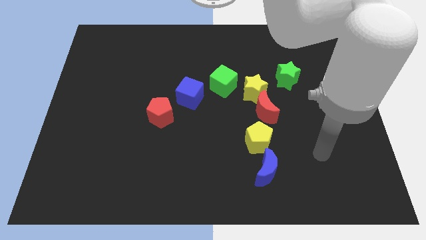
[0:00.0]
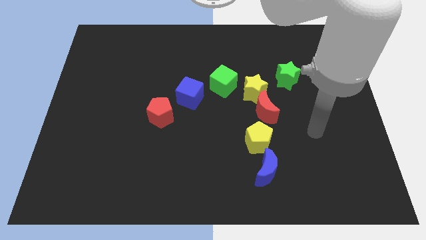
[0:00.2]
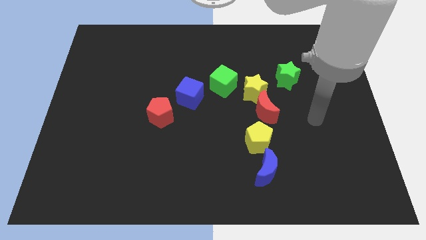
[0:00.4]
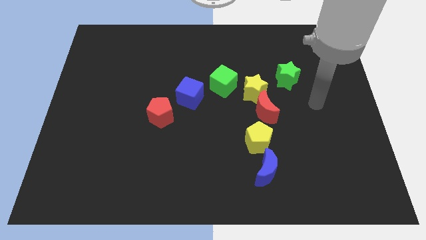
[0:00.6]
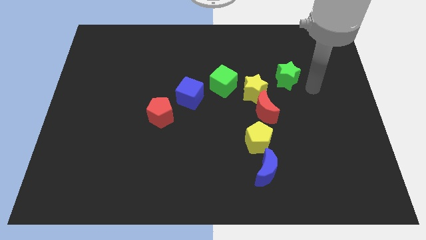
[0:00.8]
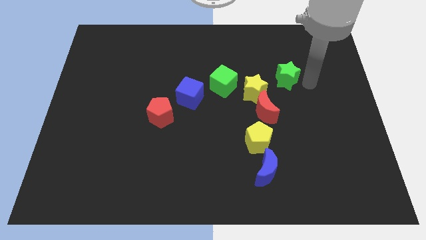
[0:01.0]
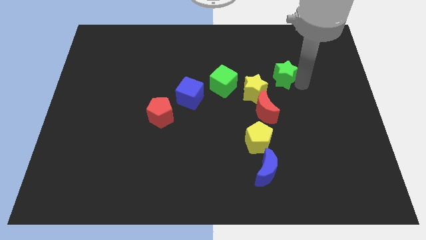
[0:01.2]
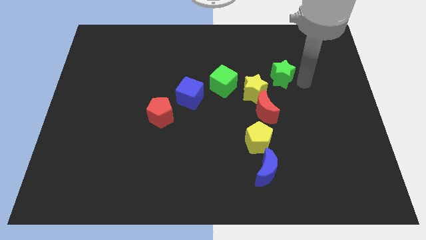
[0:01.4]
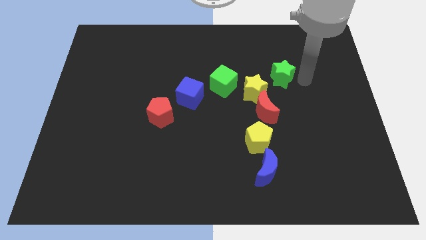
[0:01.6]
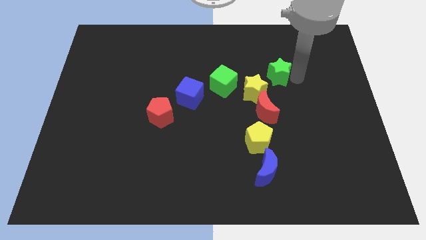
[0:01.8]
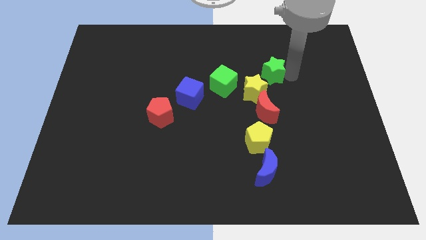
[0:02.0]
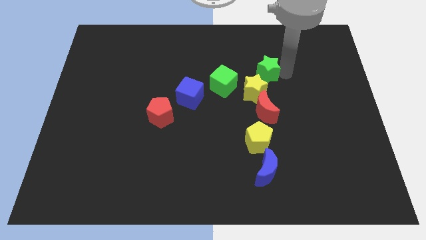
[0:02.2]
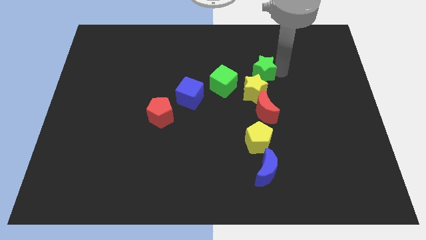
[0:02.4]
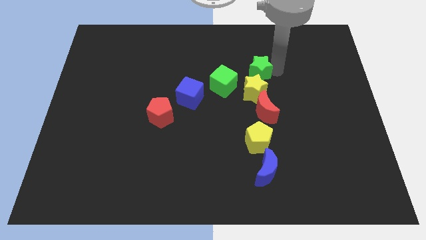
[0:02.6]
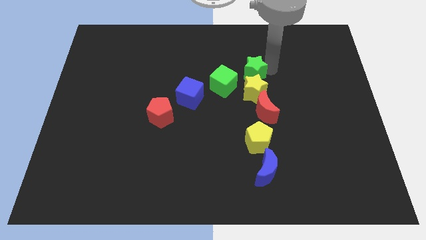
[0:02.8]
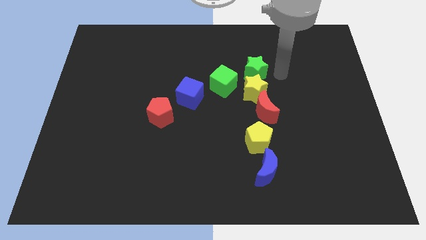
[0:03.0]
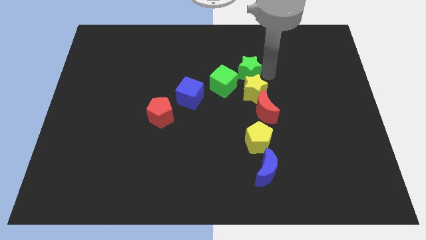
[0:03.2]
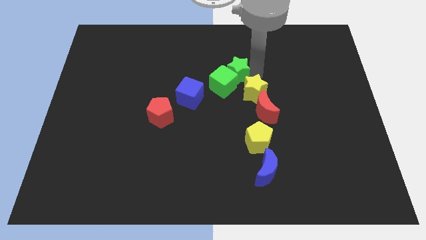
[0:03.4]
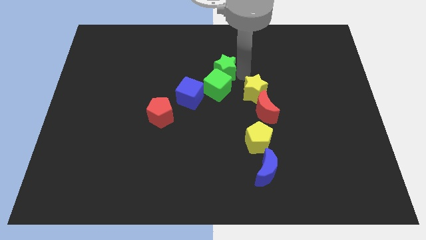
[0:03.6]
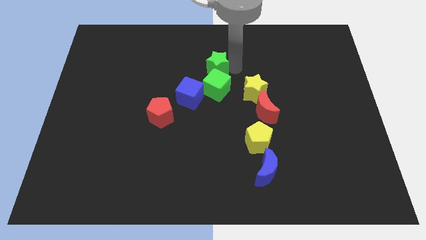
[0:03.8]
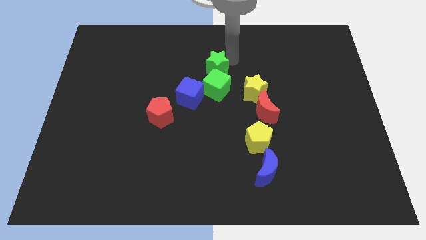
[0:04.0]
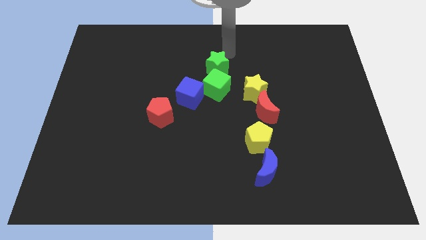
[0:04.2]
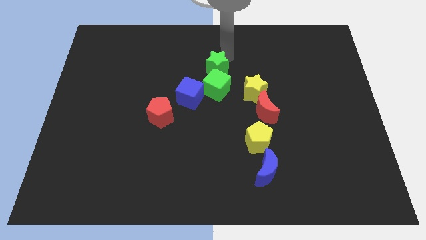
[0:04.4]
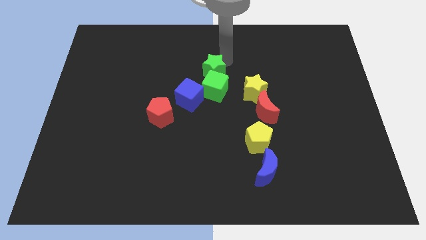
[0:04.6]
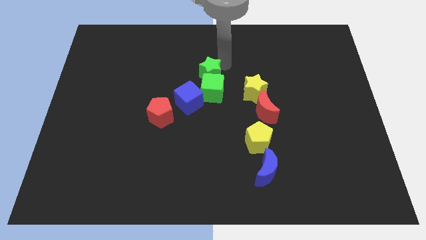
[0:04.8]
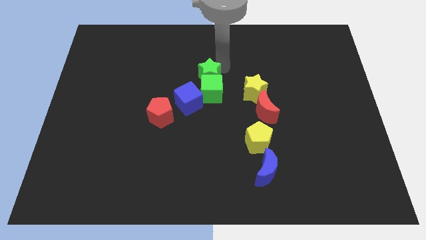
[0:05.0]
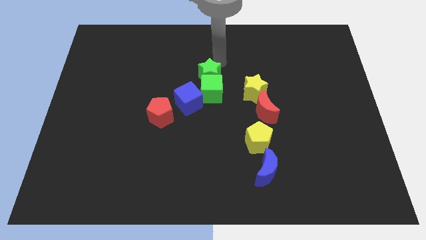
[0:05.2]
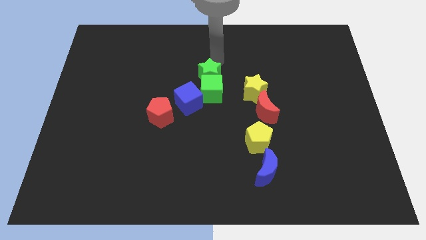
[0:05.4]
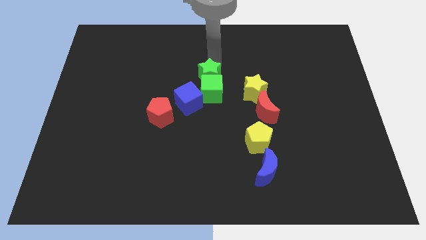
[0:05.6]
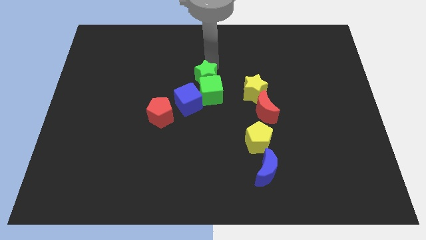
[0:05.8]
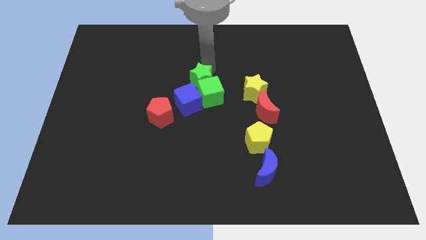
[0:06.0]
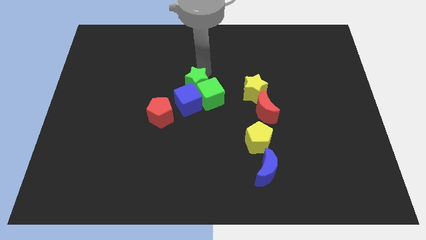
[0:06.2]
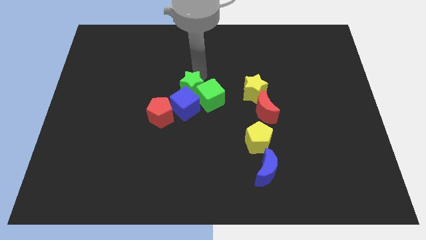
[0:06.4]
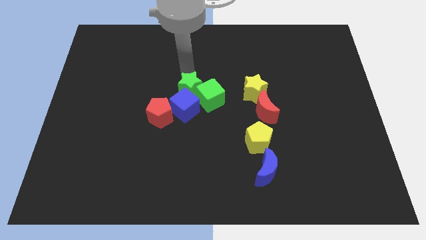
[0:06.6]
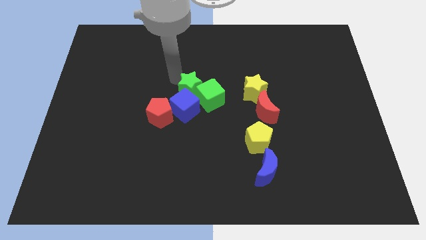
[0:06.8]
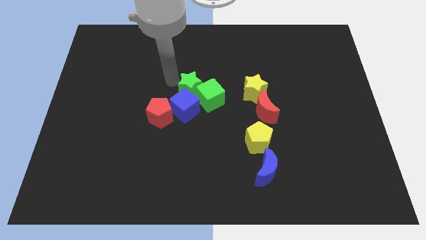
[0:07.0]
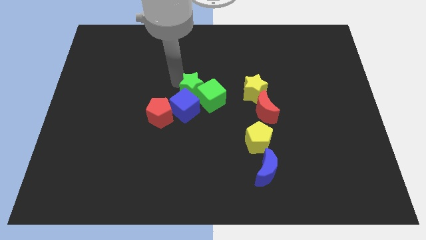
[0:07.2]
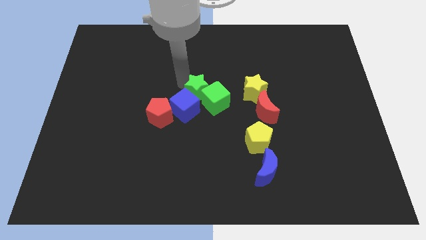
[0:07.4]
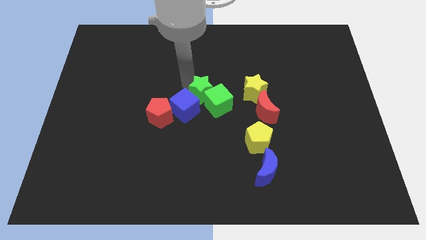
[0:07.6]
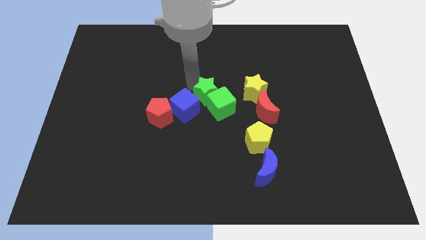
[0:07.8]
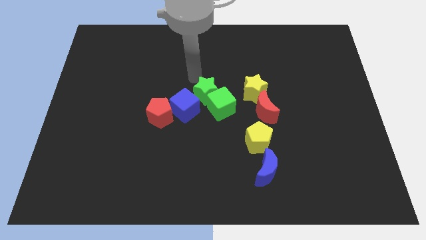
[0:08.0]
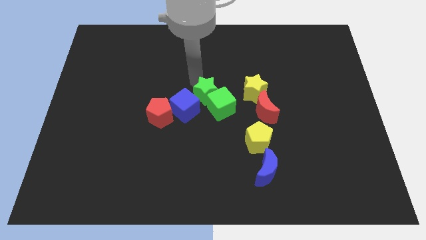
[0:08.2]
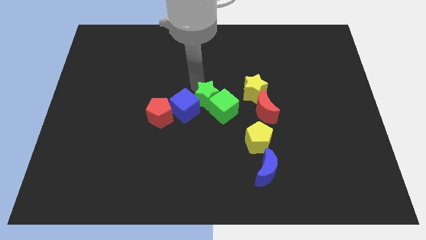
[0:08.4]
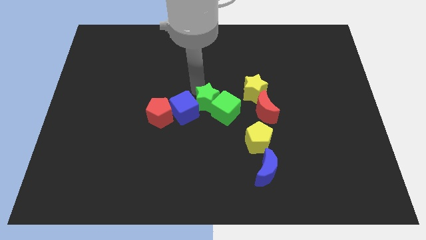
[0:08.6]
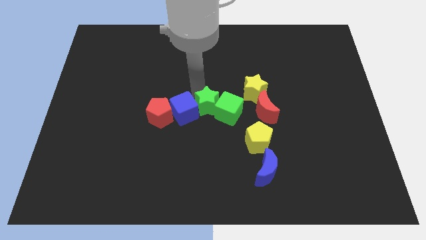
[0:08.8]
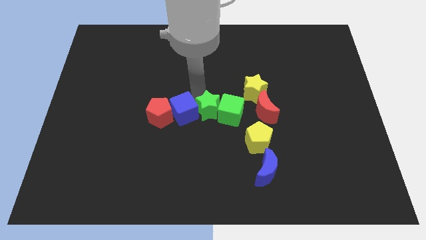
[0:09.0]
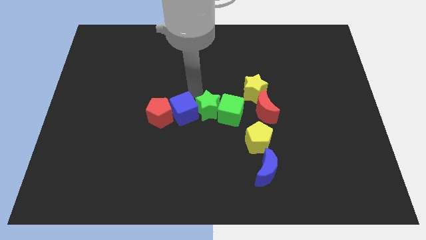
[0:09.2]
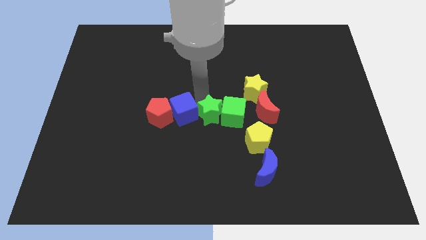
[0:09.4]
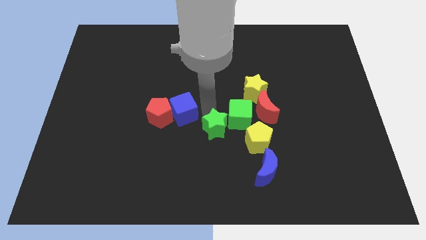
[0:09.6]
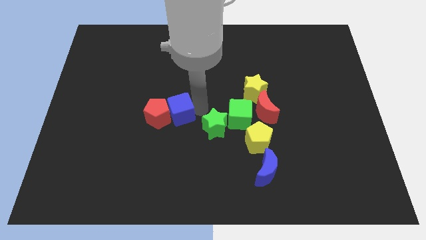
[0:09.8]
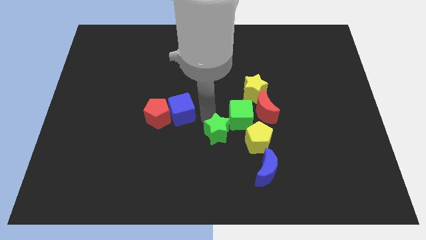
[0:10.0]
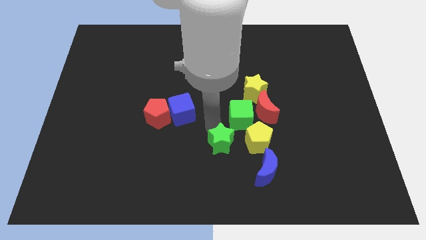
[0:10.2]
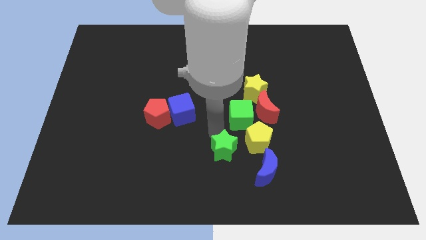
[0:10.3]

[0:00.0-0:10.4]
slide the green star to the bottom left side of the yellow pentagon

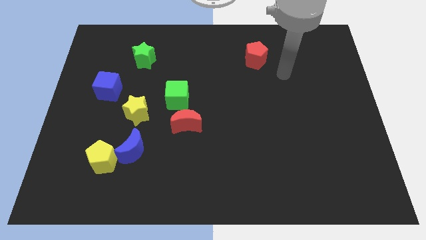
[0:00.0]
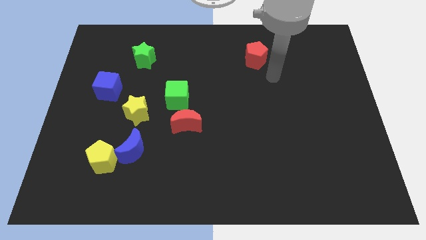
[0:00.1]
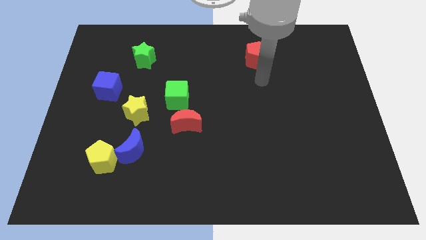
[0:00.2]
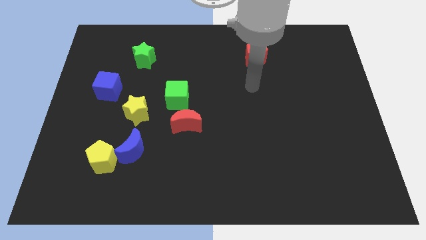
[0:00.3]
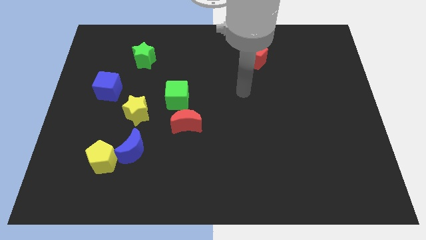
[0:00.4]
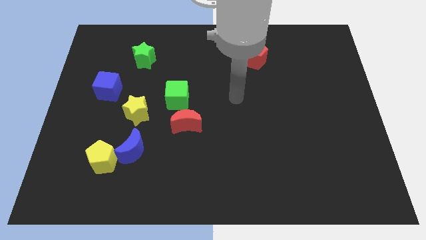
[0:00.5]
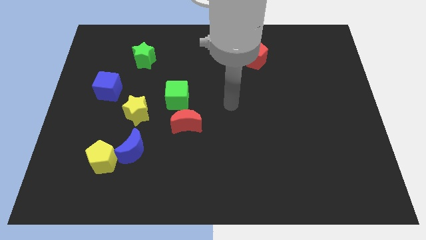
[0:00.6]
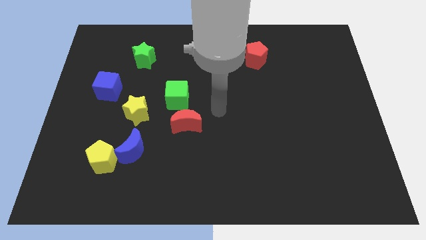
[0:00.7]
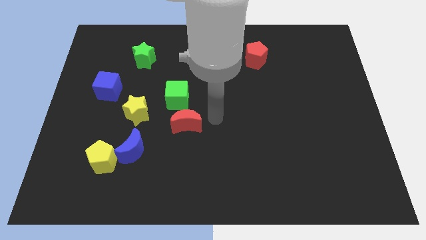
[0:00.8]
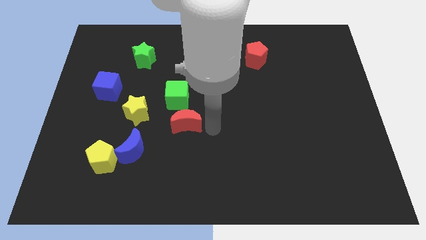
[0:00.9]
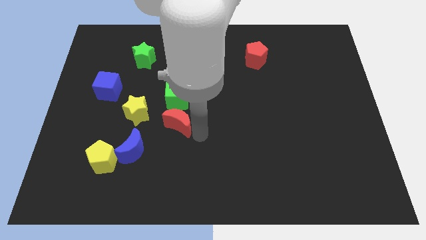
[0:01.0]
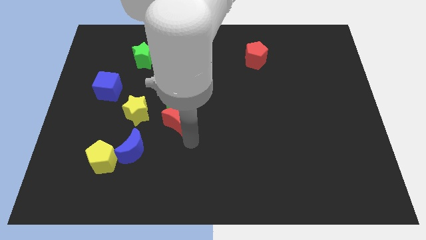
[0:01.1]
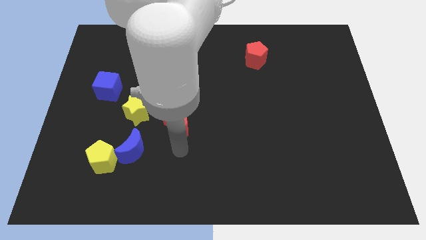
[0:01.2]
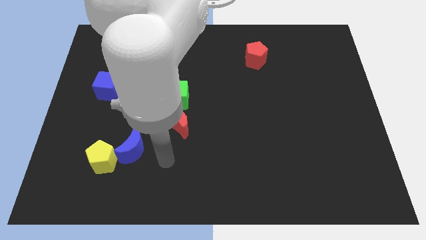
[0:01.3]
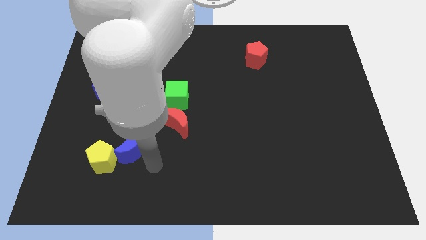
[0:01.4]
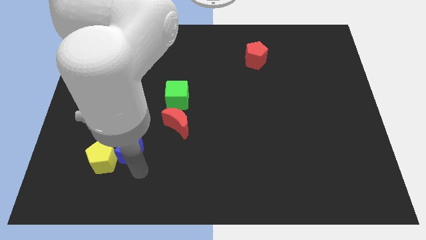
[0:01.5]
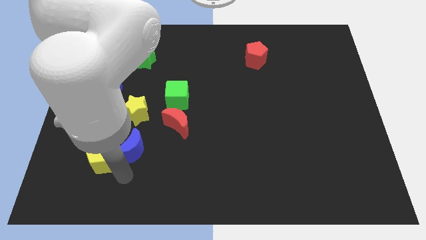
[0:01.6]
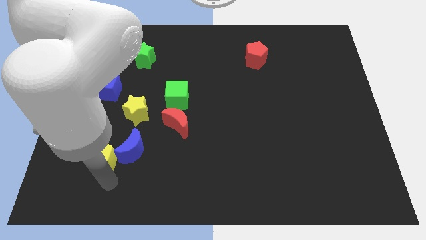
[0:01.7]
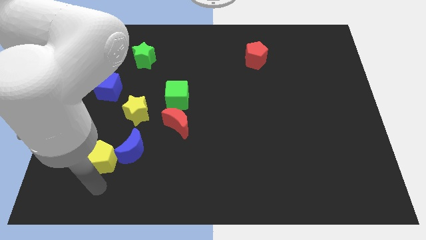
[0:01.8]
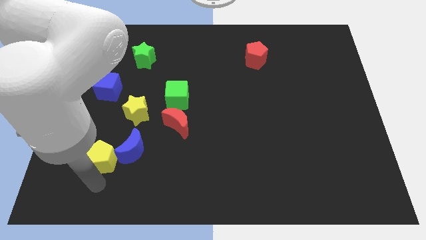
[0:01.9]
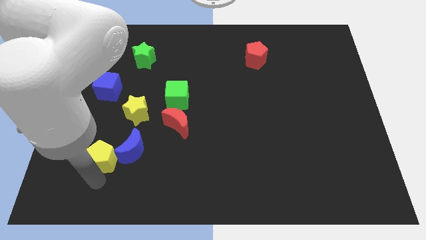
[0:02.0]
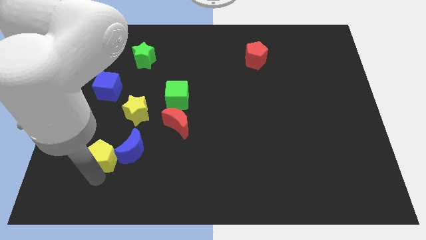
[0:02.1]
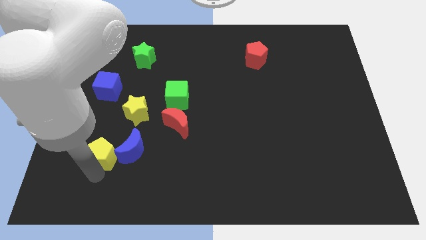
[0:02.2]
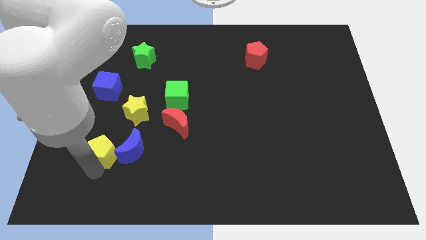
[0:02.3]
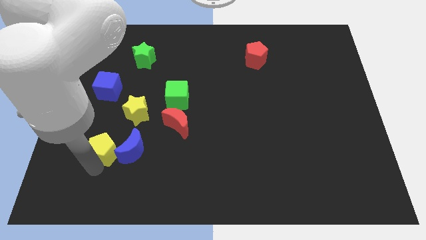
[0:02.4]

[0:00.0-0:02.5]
move the yellow pentagon to the bottom left side of the yellow star
